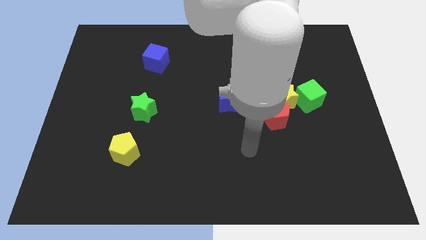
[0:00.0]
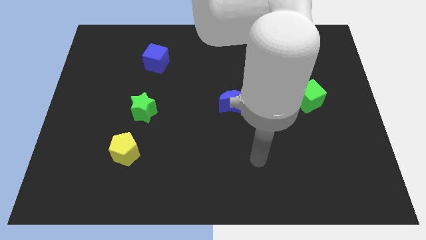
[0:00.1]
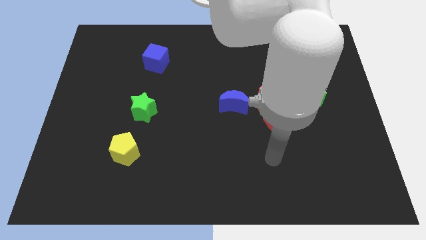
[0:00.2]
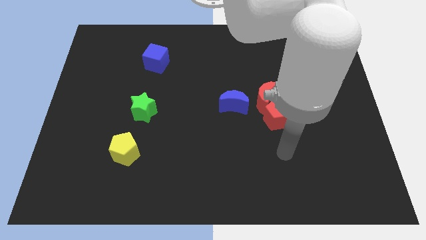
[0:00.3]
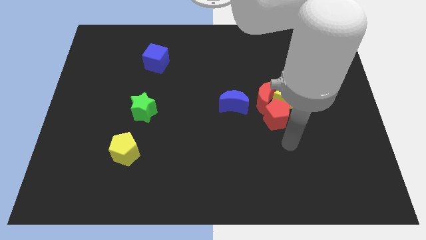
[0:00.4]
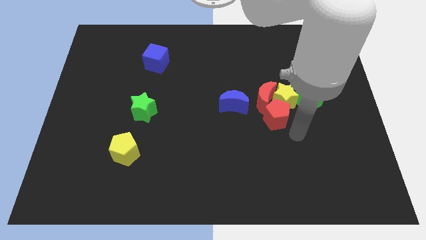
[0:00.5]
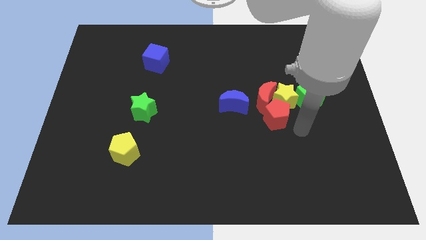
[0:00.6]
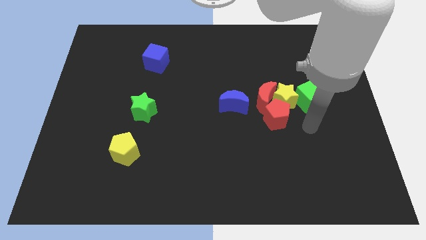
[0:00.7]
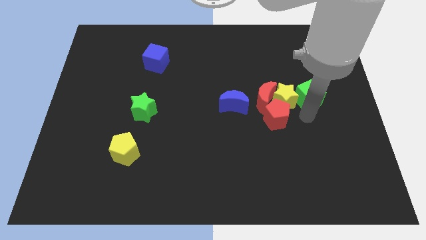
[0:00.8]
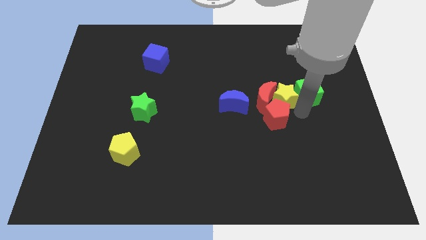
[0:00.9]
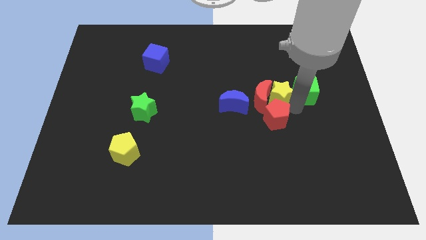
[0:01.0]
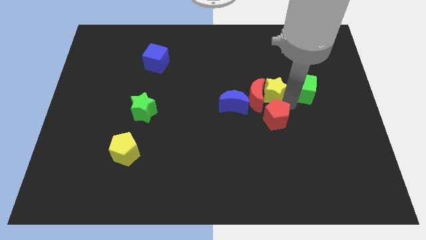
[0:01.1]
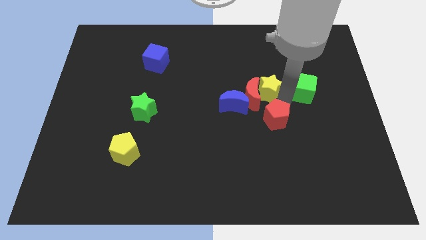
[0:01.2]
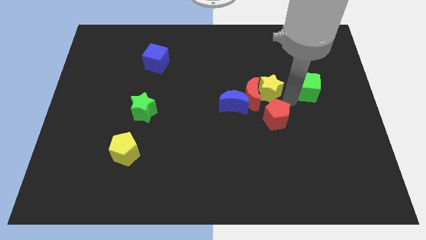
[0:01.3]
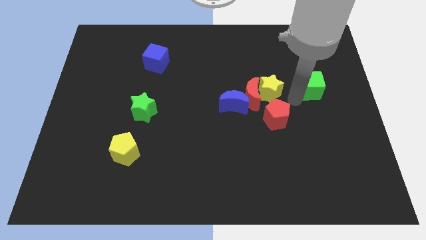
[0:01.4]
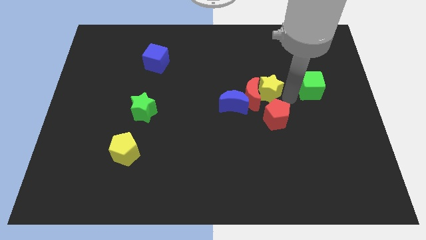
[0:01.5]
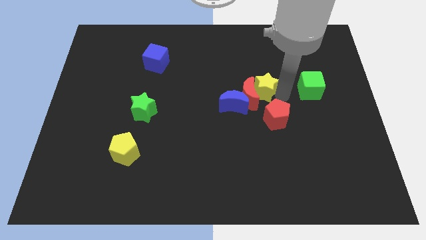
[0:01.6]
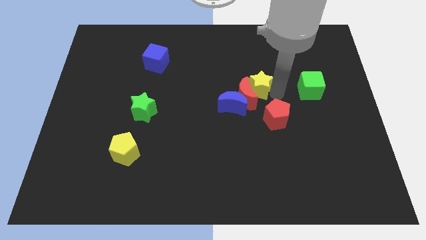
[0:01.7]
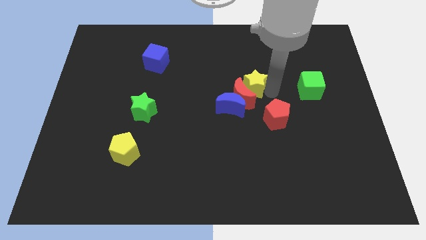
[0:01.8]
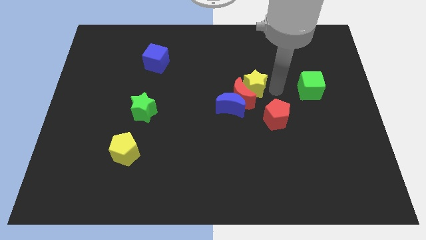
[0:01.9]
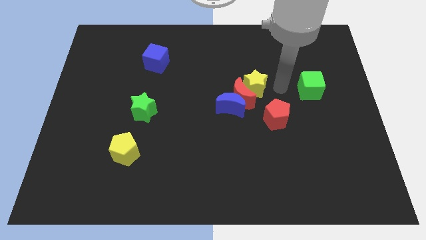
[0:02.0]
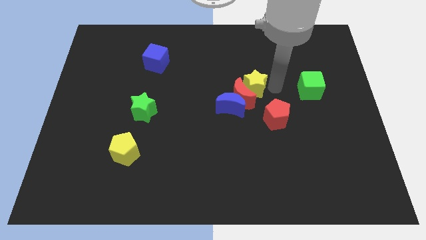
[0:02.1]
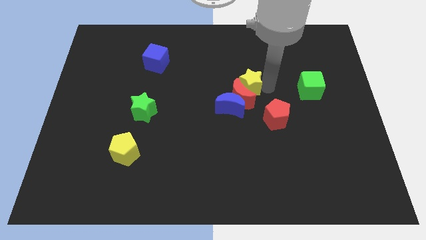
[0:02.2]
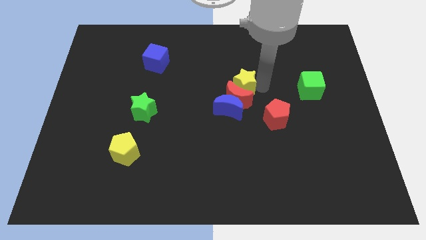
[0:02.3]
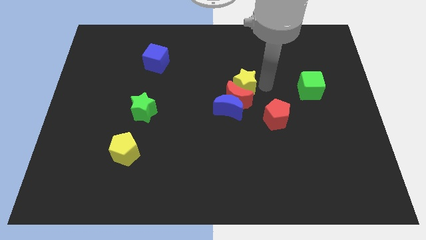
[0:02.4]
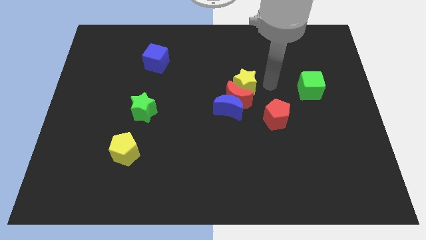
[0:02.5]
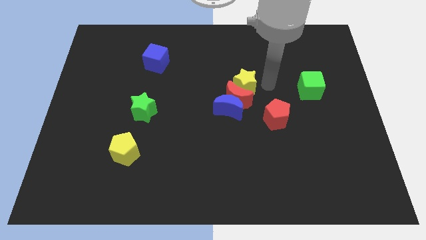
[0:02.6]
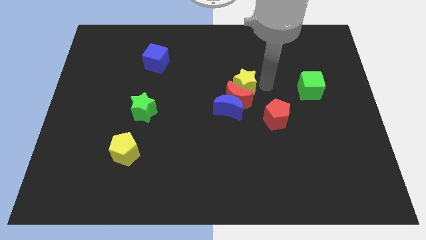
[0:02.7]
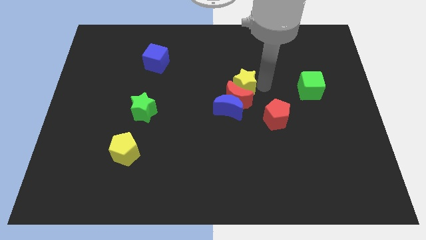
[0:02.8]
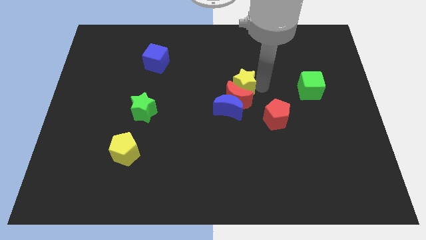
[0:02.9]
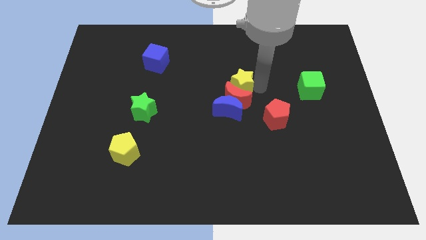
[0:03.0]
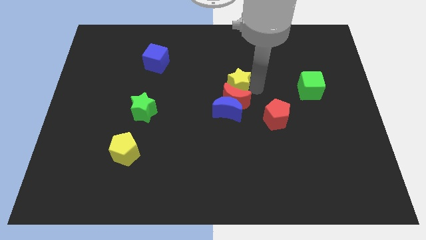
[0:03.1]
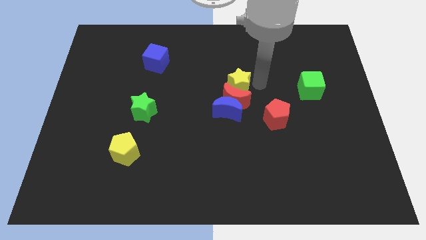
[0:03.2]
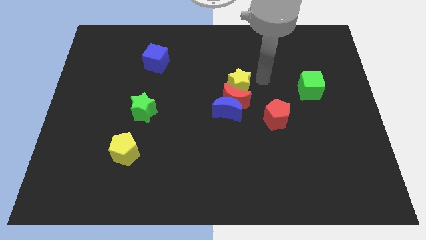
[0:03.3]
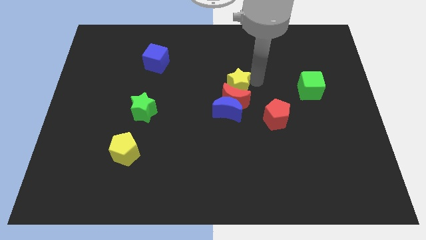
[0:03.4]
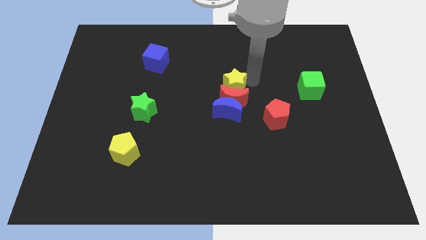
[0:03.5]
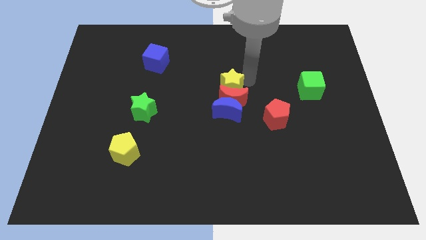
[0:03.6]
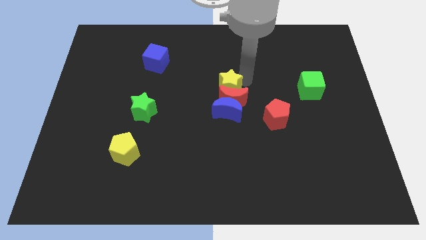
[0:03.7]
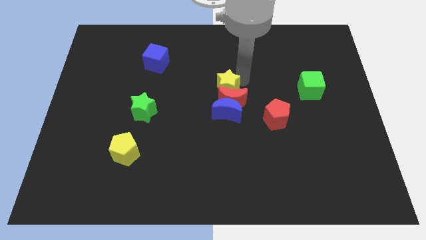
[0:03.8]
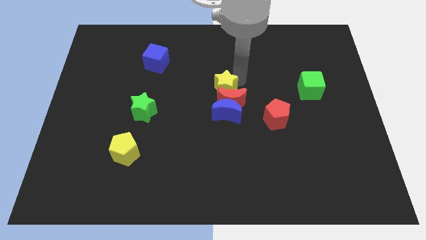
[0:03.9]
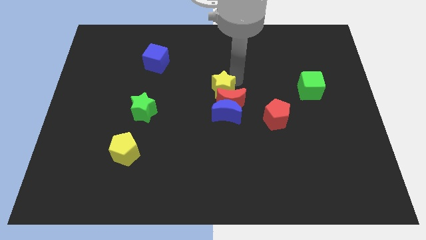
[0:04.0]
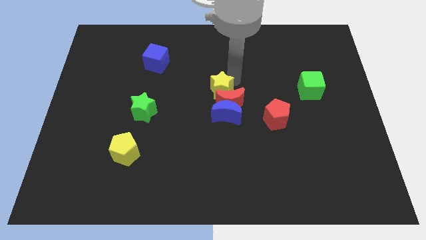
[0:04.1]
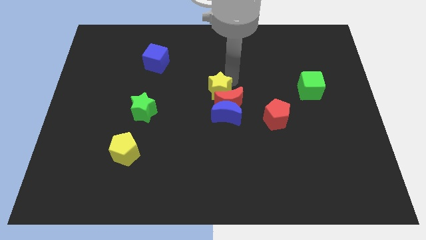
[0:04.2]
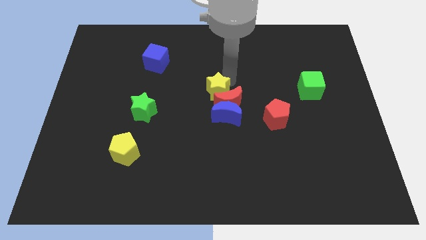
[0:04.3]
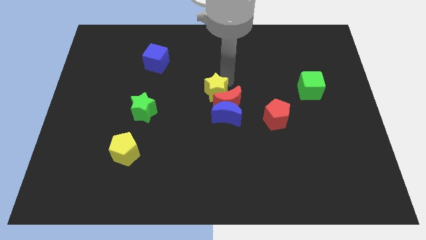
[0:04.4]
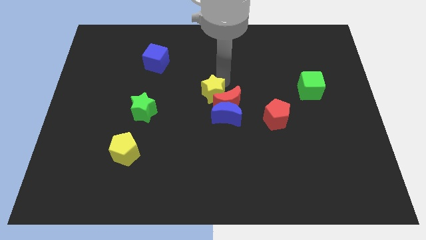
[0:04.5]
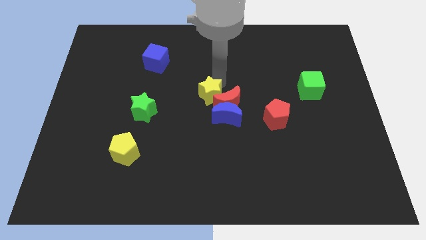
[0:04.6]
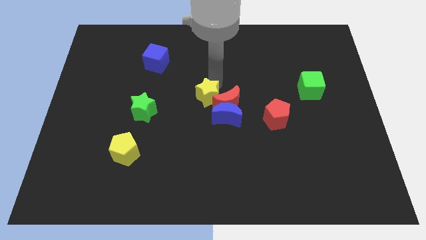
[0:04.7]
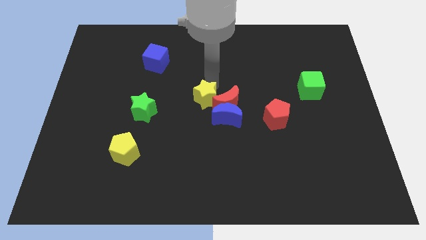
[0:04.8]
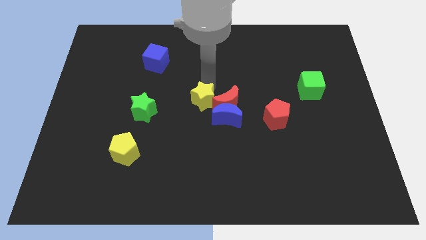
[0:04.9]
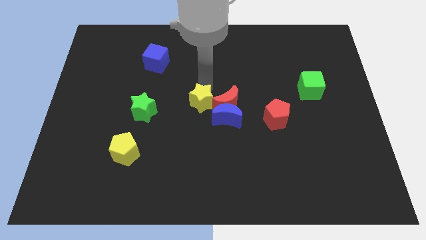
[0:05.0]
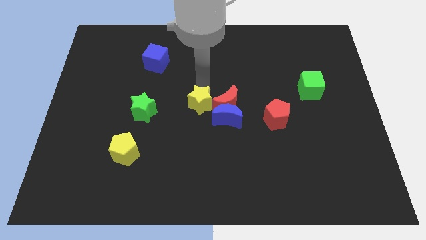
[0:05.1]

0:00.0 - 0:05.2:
move the yellow star to the left of the blue moon

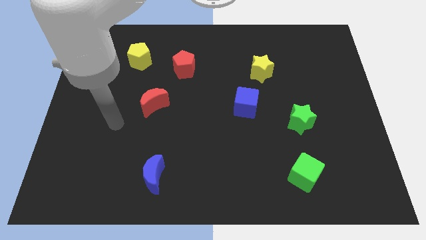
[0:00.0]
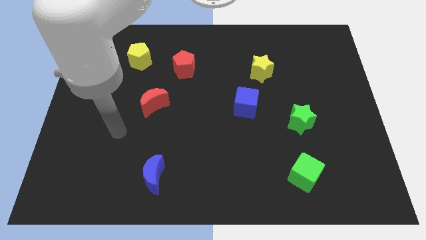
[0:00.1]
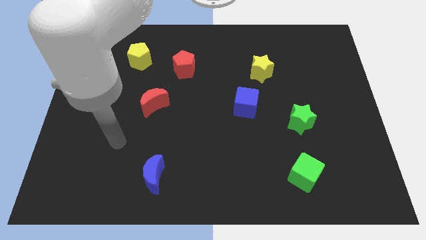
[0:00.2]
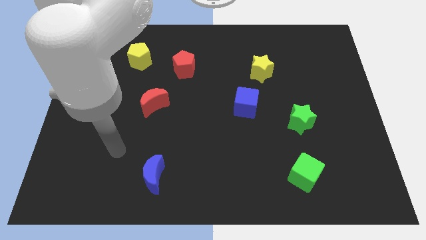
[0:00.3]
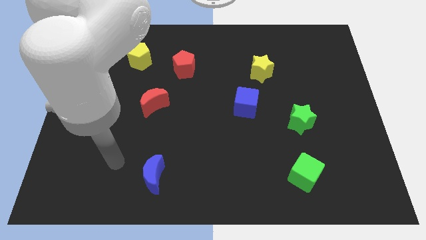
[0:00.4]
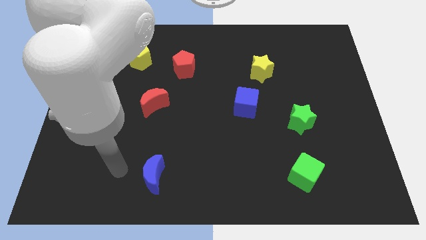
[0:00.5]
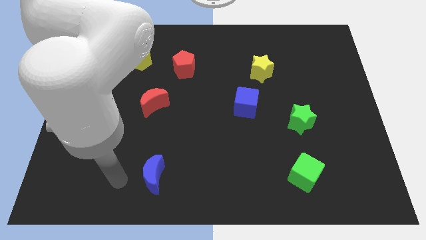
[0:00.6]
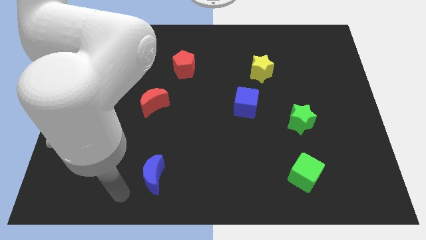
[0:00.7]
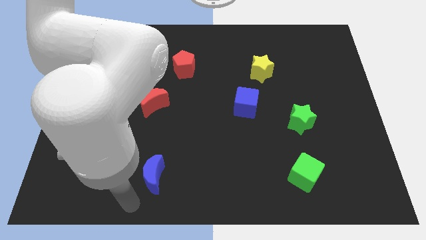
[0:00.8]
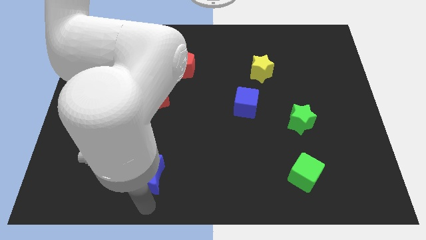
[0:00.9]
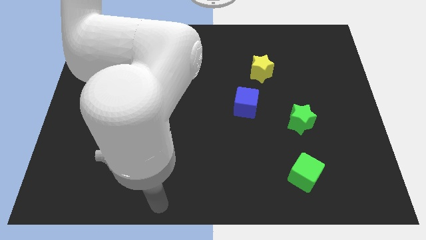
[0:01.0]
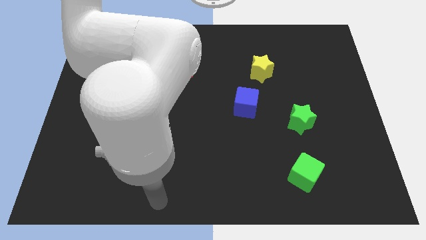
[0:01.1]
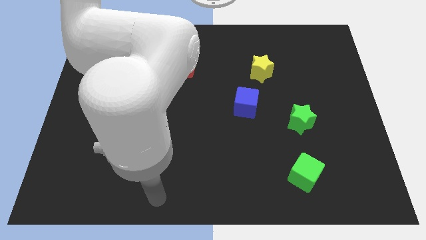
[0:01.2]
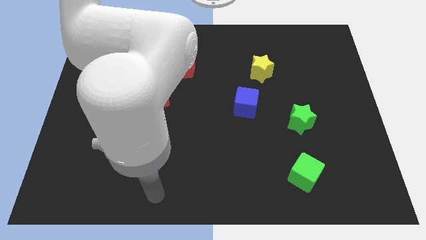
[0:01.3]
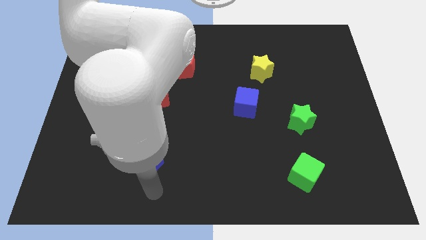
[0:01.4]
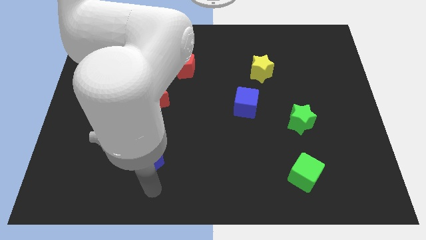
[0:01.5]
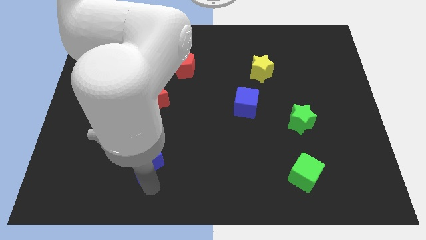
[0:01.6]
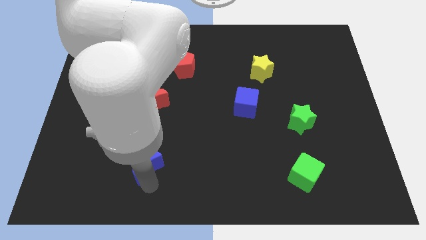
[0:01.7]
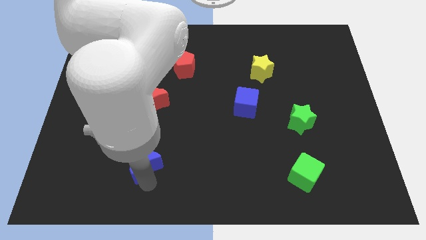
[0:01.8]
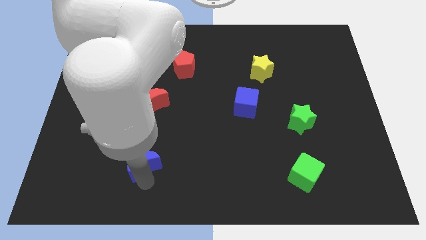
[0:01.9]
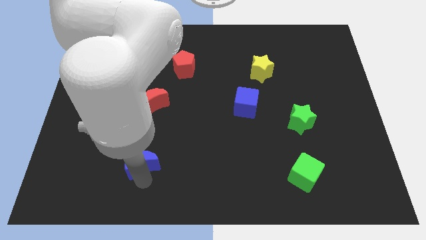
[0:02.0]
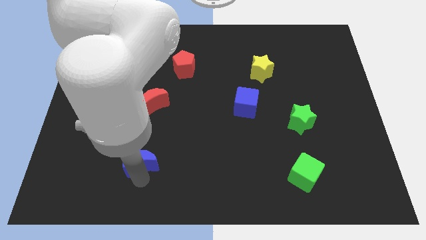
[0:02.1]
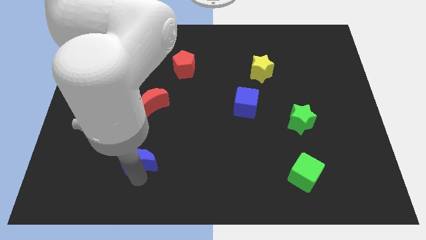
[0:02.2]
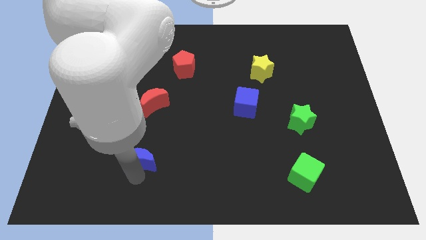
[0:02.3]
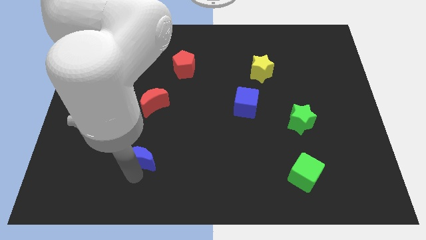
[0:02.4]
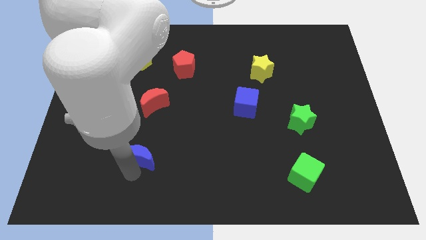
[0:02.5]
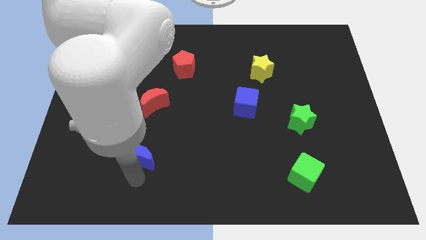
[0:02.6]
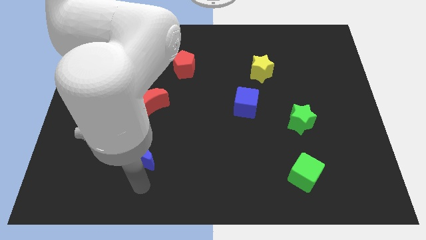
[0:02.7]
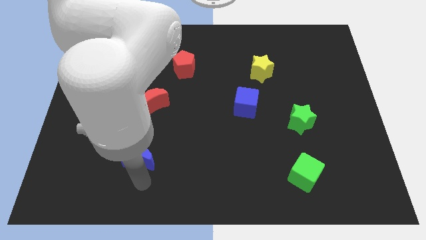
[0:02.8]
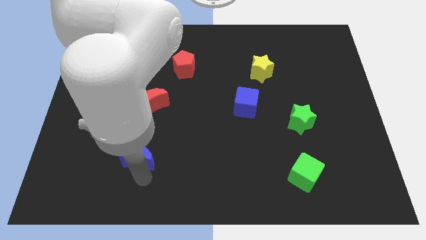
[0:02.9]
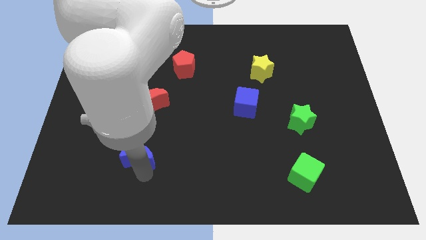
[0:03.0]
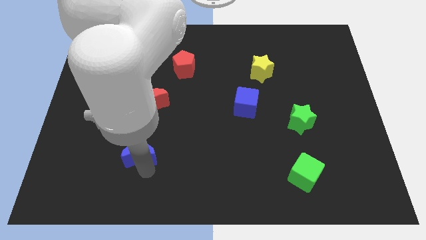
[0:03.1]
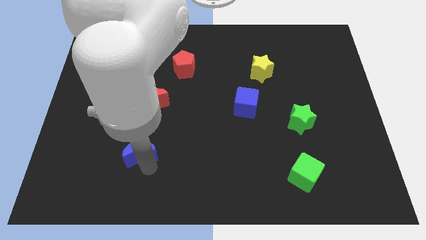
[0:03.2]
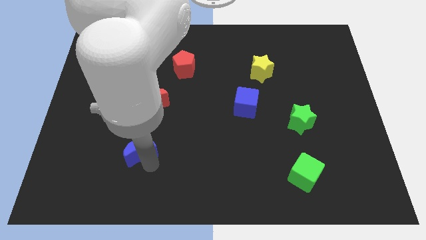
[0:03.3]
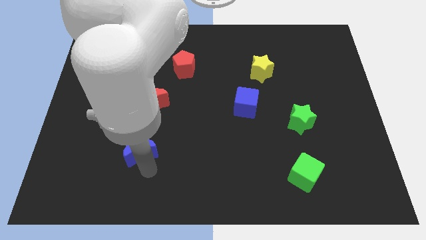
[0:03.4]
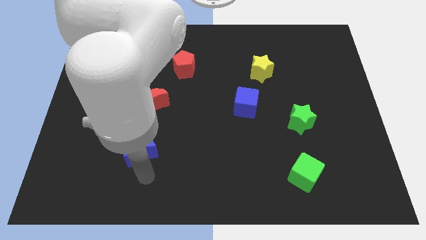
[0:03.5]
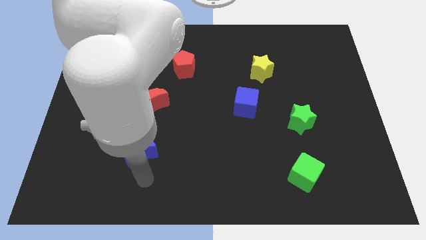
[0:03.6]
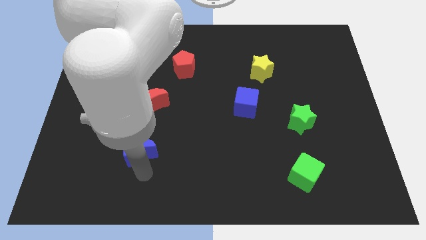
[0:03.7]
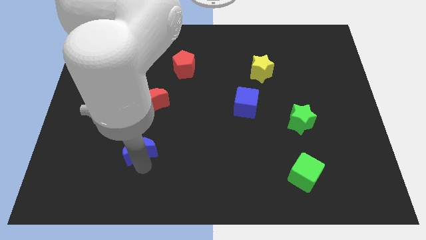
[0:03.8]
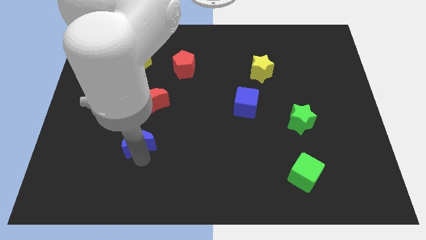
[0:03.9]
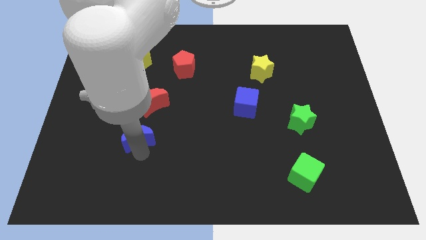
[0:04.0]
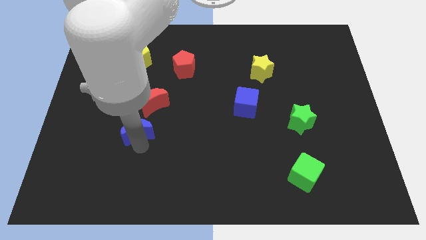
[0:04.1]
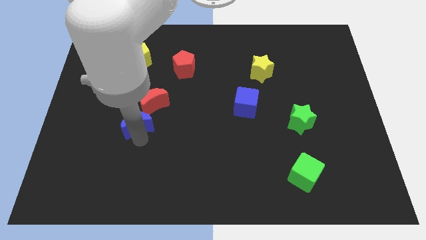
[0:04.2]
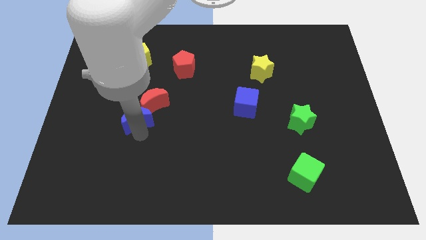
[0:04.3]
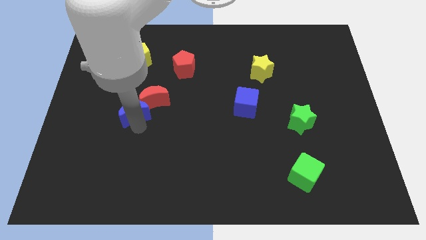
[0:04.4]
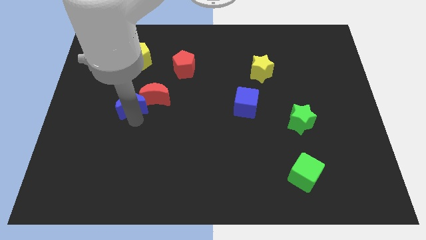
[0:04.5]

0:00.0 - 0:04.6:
put the blue moon below the yellow pentagon
